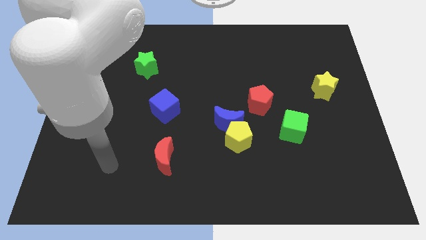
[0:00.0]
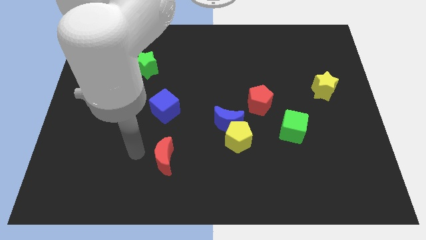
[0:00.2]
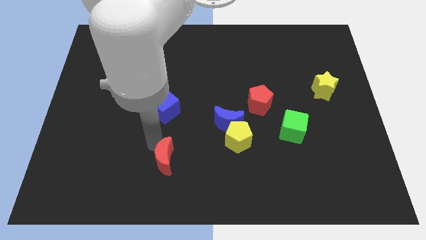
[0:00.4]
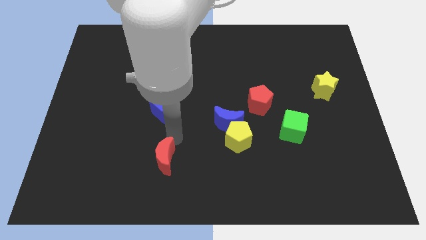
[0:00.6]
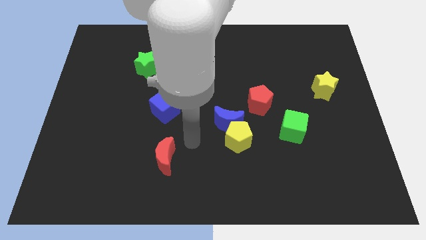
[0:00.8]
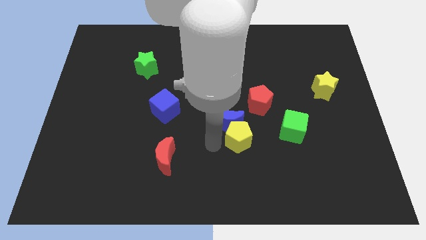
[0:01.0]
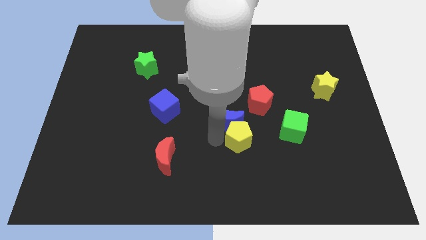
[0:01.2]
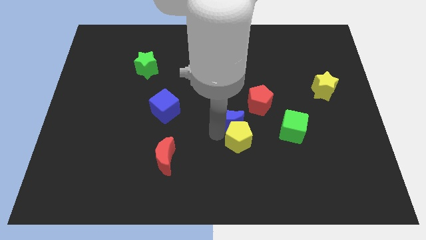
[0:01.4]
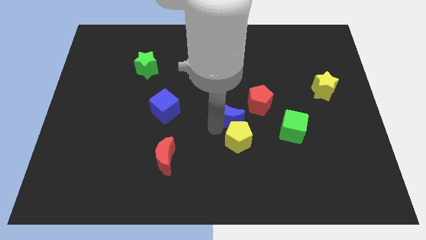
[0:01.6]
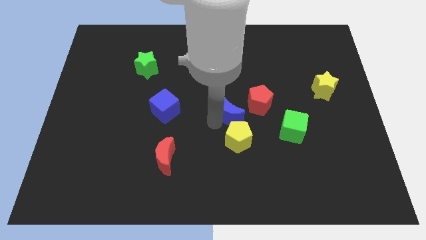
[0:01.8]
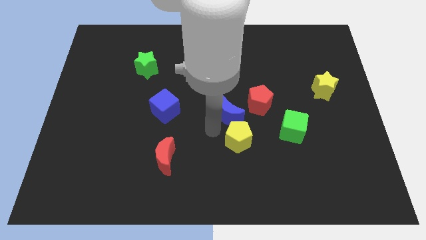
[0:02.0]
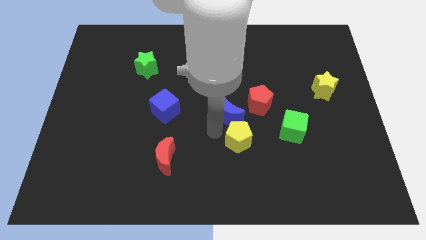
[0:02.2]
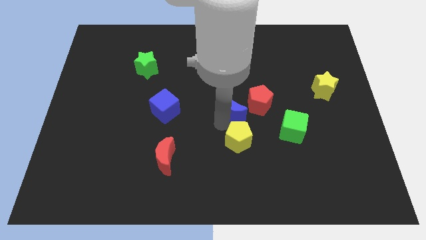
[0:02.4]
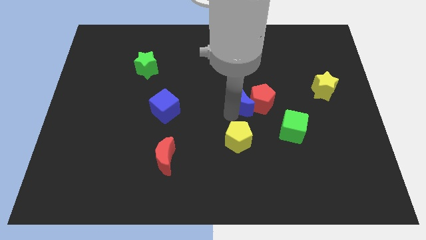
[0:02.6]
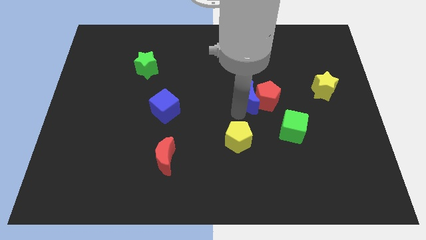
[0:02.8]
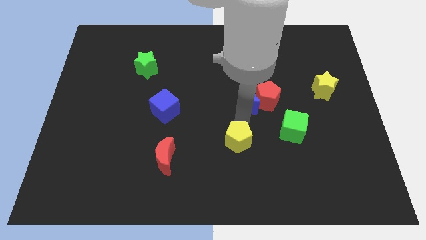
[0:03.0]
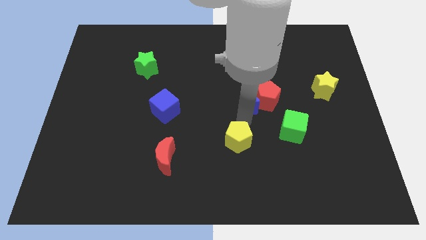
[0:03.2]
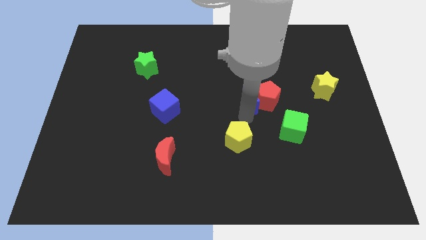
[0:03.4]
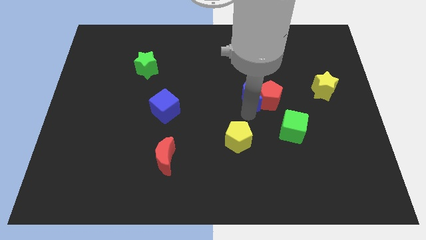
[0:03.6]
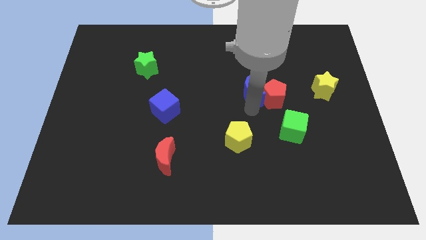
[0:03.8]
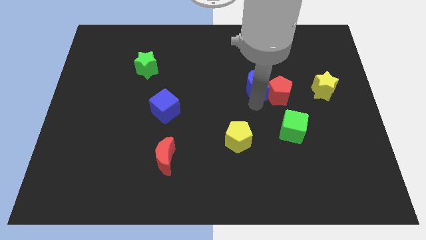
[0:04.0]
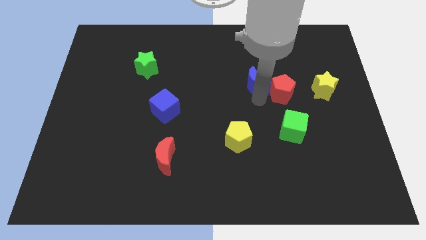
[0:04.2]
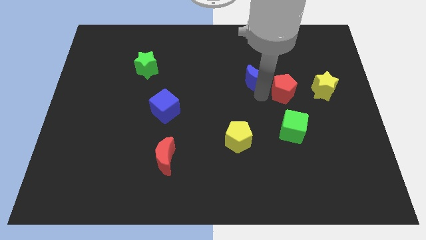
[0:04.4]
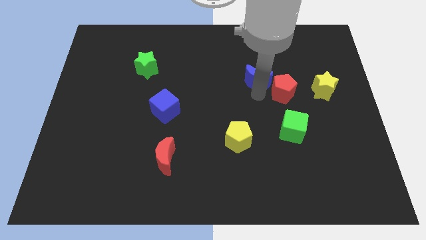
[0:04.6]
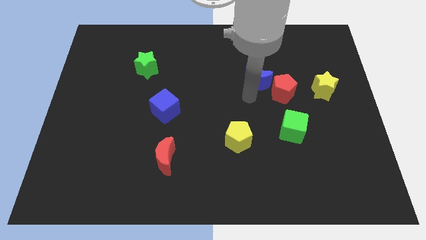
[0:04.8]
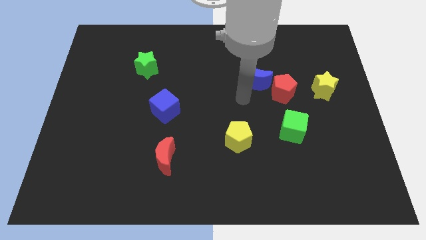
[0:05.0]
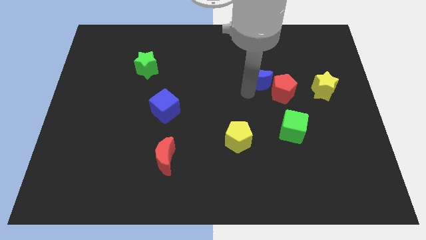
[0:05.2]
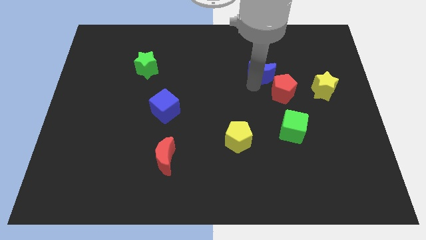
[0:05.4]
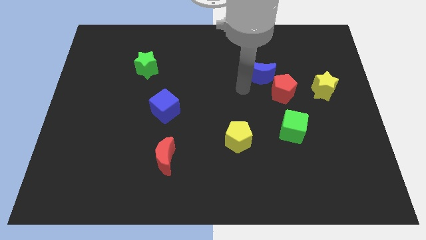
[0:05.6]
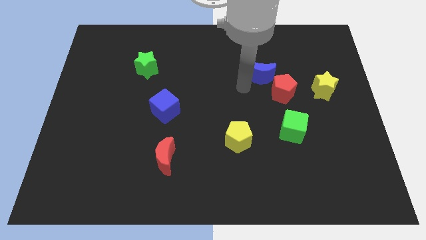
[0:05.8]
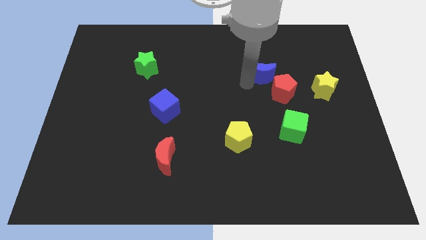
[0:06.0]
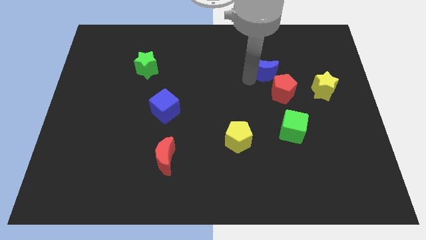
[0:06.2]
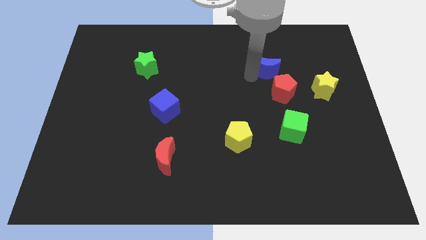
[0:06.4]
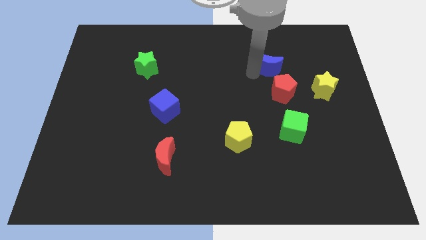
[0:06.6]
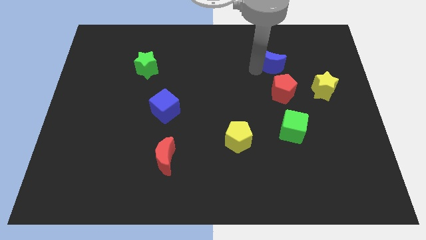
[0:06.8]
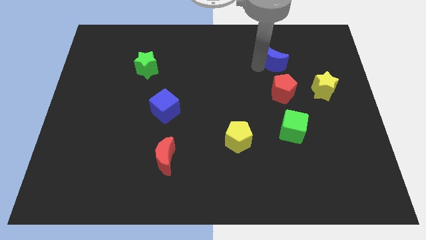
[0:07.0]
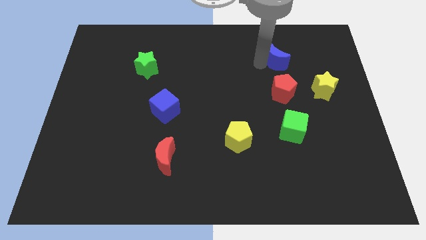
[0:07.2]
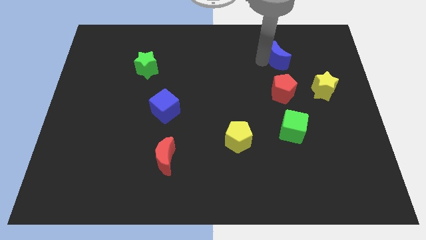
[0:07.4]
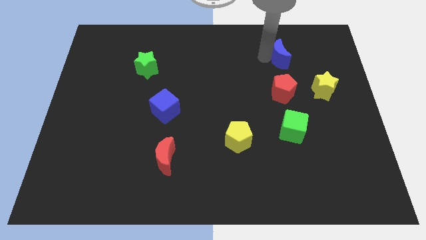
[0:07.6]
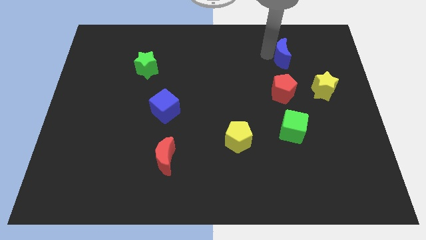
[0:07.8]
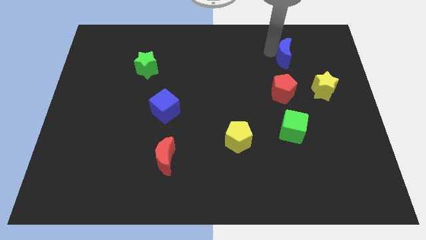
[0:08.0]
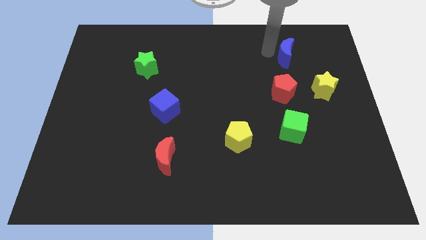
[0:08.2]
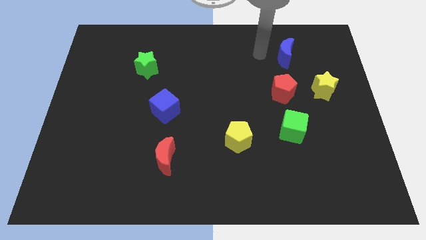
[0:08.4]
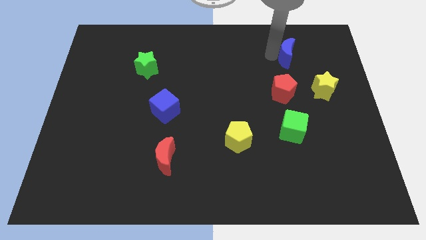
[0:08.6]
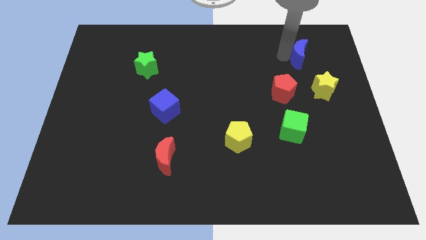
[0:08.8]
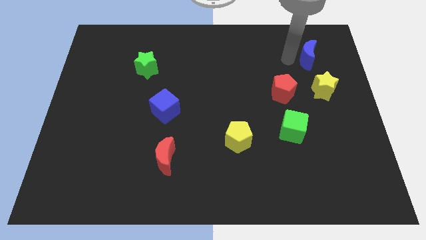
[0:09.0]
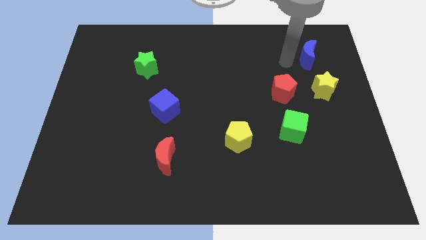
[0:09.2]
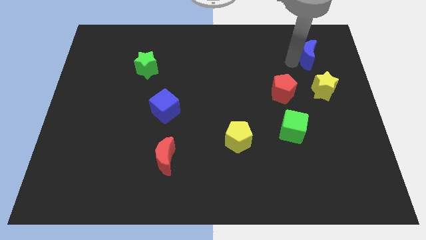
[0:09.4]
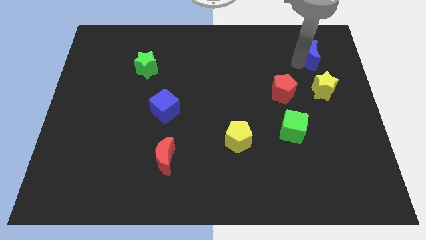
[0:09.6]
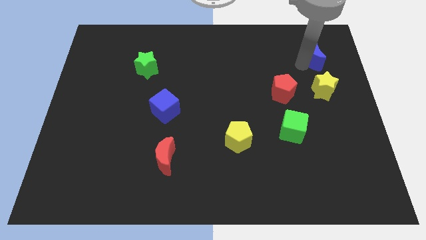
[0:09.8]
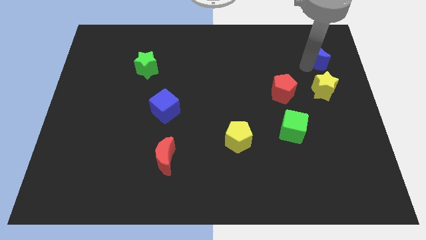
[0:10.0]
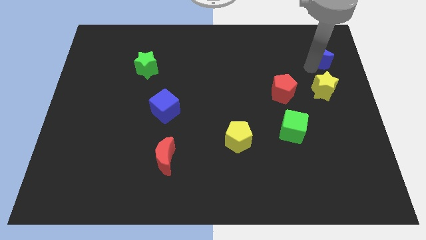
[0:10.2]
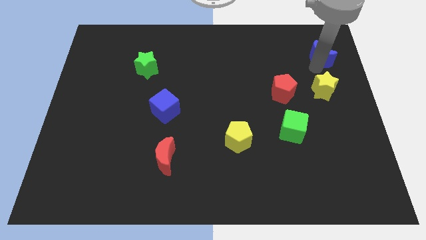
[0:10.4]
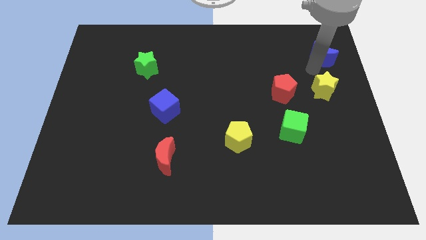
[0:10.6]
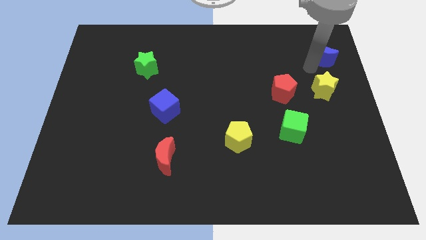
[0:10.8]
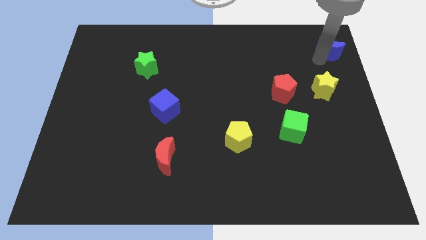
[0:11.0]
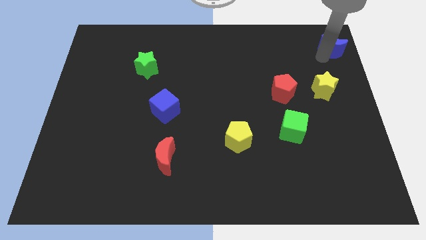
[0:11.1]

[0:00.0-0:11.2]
push the blue moon to the top right

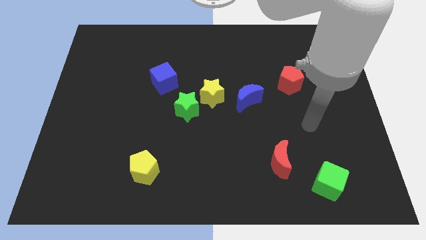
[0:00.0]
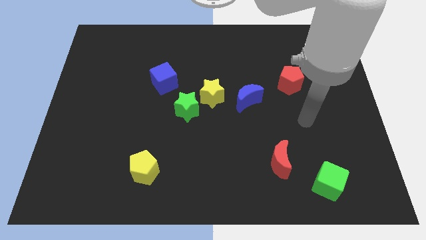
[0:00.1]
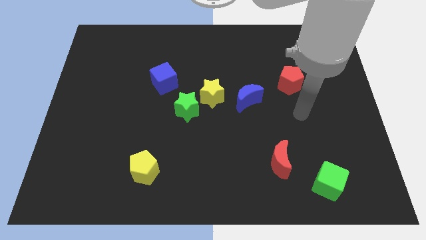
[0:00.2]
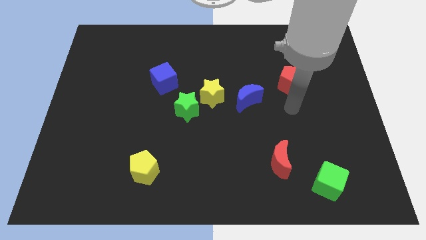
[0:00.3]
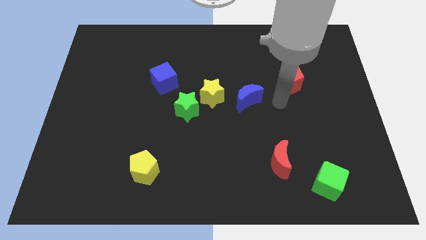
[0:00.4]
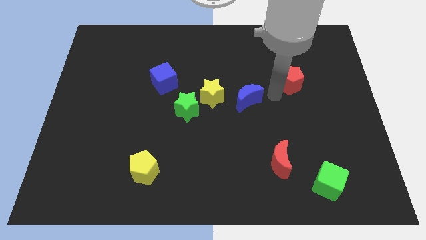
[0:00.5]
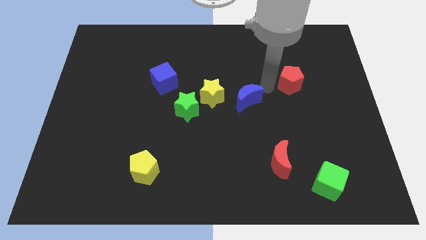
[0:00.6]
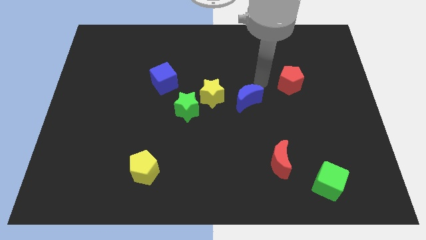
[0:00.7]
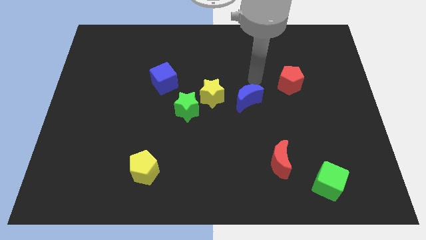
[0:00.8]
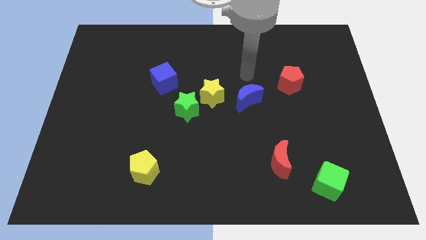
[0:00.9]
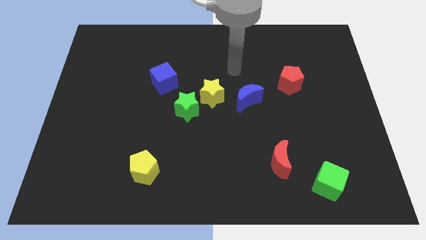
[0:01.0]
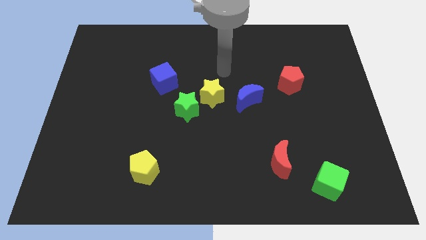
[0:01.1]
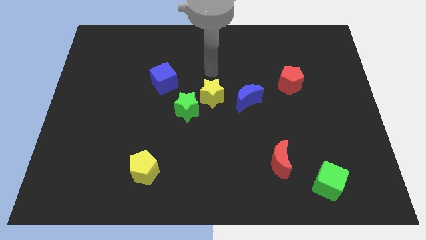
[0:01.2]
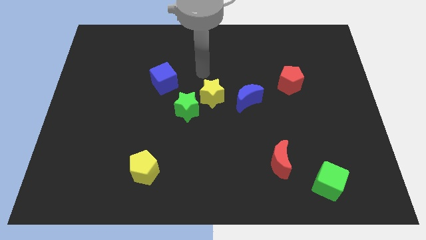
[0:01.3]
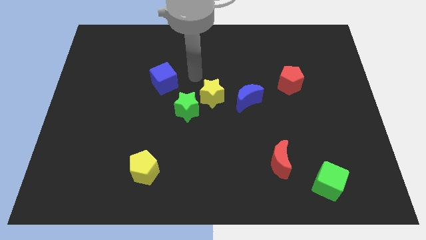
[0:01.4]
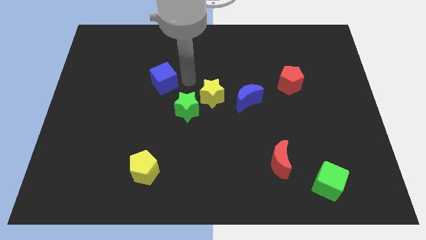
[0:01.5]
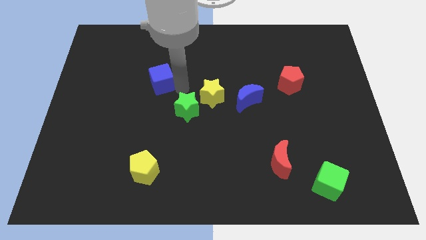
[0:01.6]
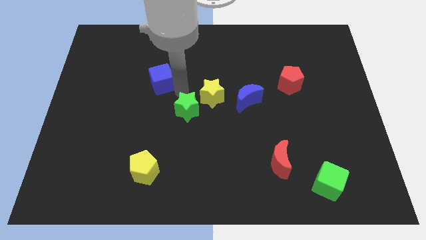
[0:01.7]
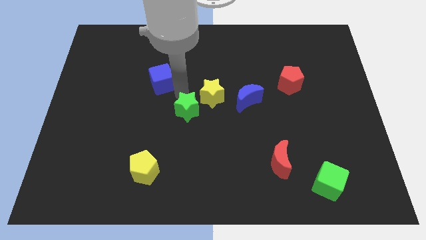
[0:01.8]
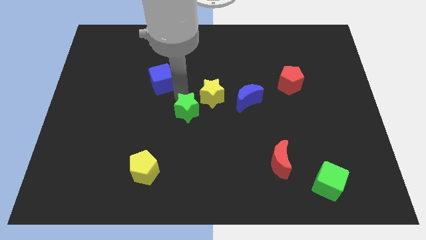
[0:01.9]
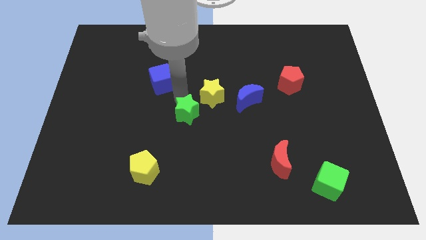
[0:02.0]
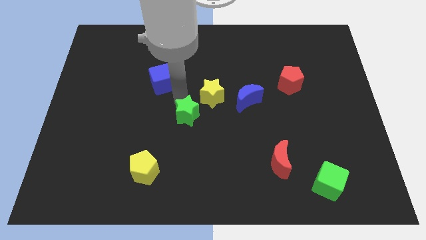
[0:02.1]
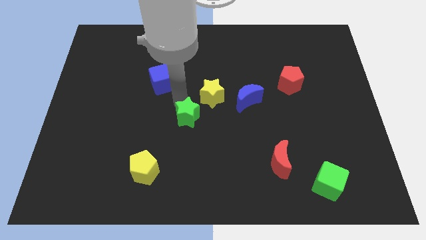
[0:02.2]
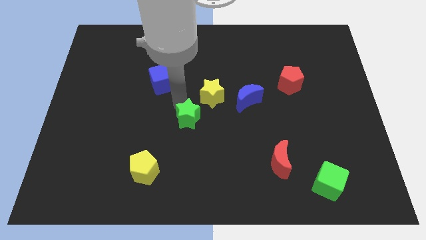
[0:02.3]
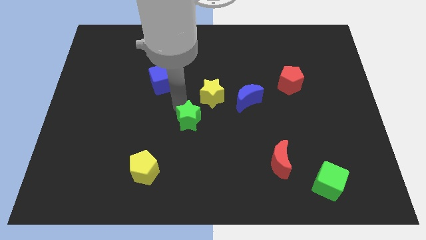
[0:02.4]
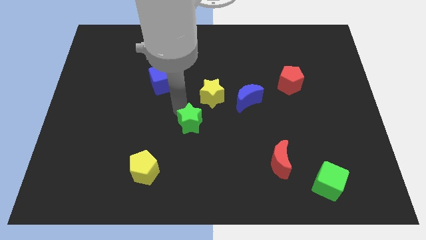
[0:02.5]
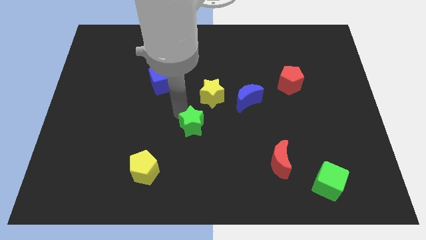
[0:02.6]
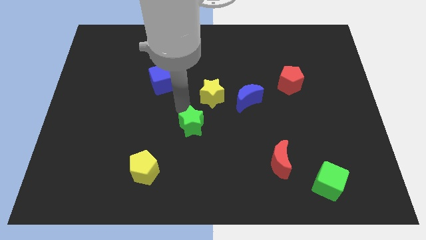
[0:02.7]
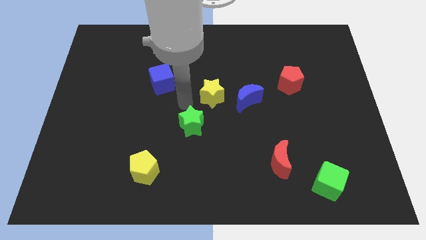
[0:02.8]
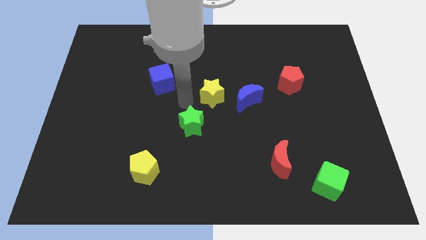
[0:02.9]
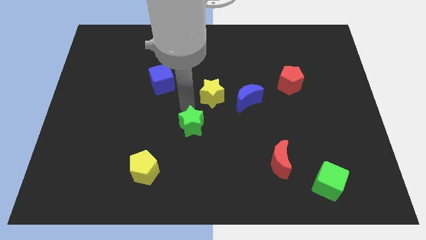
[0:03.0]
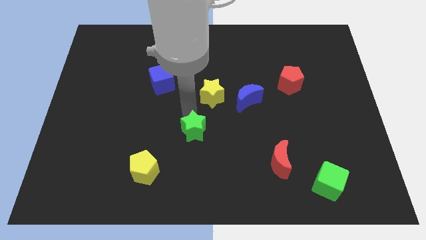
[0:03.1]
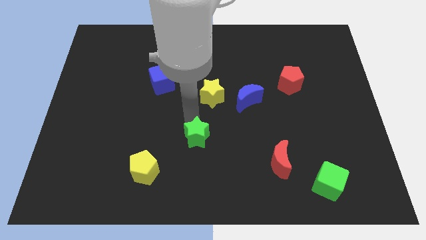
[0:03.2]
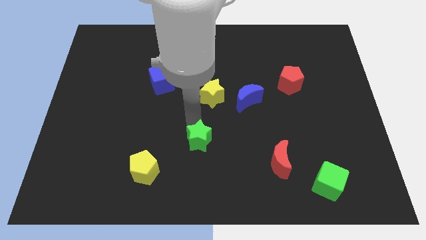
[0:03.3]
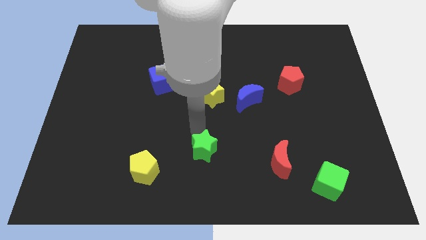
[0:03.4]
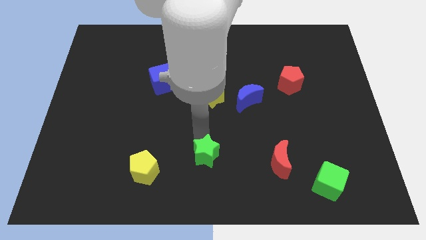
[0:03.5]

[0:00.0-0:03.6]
slide the green star to the bottom
